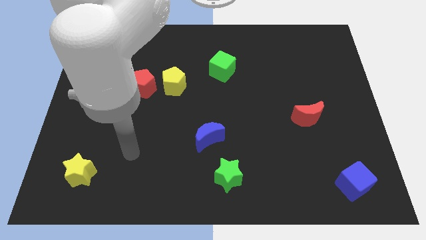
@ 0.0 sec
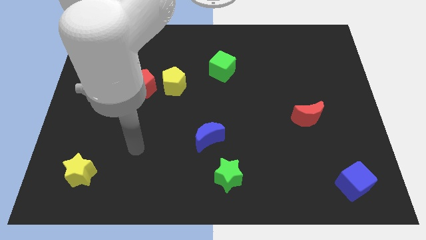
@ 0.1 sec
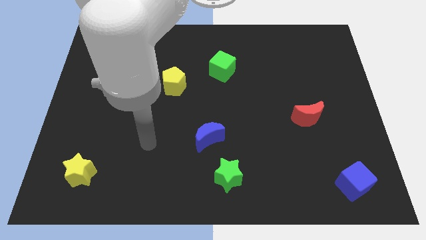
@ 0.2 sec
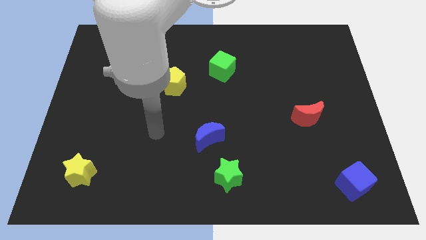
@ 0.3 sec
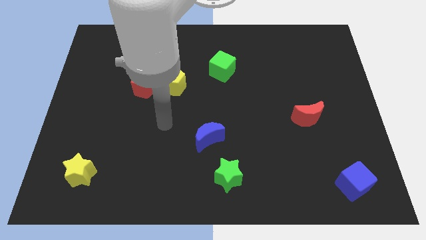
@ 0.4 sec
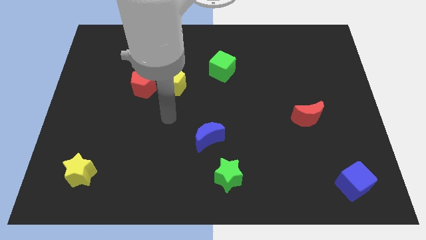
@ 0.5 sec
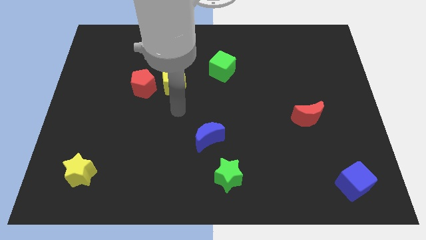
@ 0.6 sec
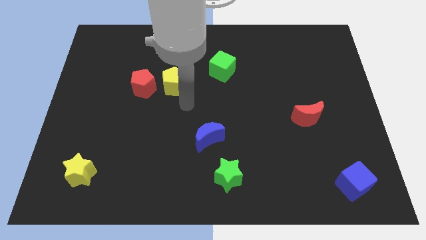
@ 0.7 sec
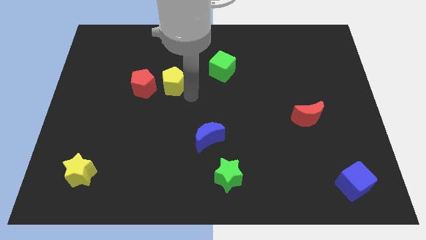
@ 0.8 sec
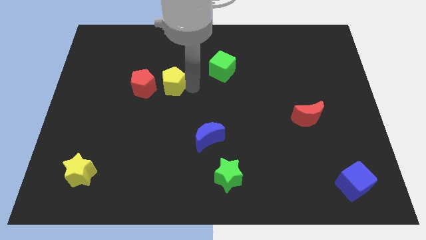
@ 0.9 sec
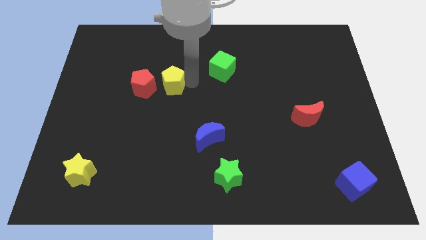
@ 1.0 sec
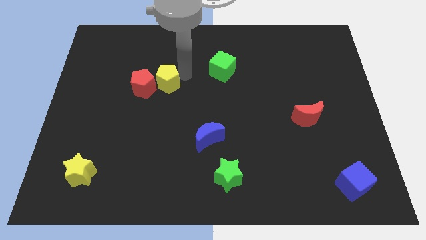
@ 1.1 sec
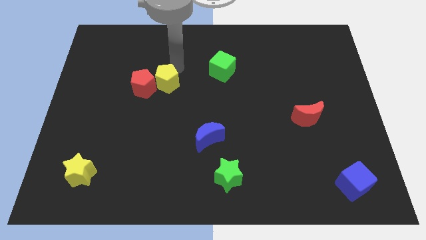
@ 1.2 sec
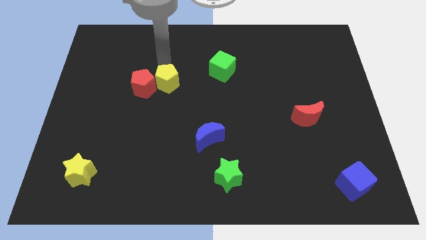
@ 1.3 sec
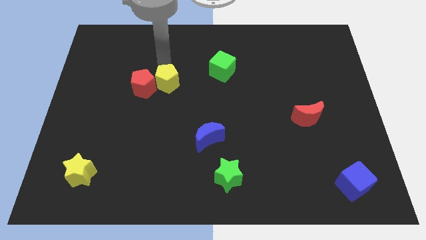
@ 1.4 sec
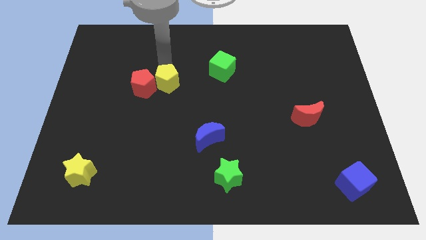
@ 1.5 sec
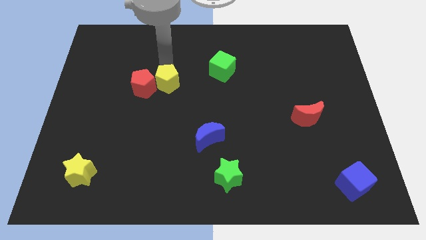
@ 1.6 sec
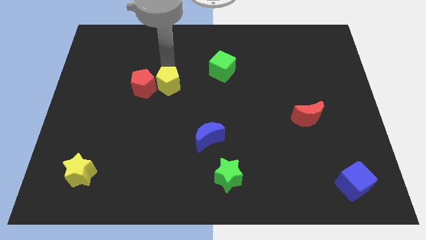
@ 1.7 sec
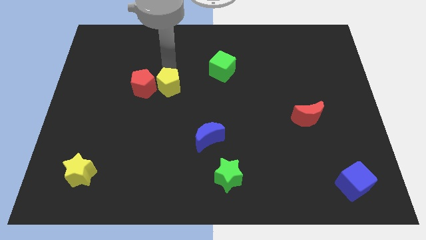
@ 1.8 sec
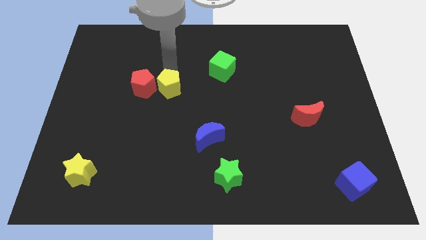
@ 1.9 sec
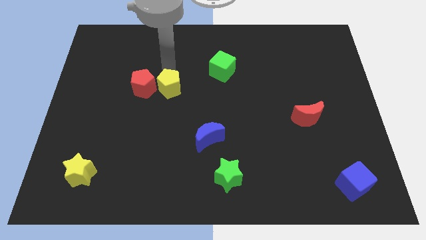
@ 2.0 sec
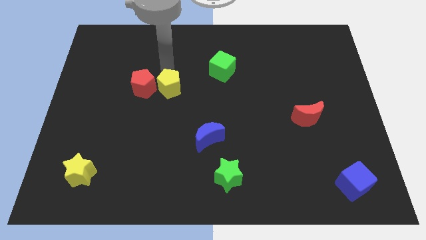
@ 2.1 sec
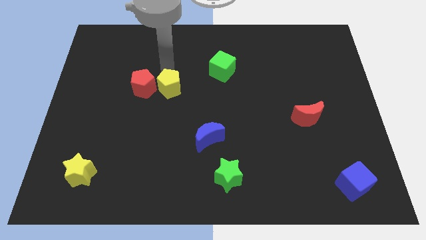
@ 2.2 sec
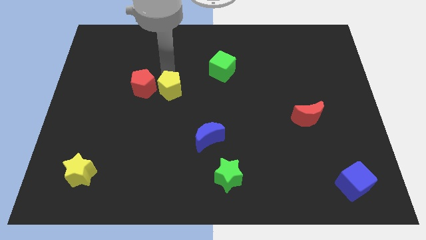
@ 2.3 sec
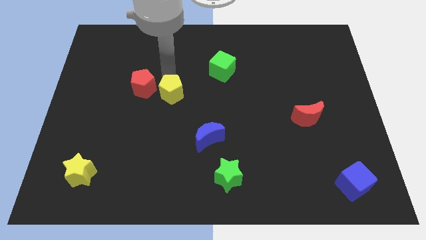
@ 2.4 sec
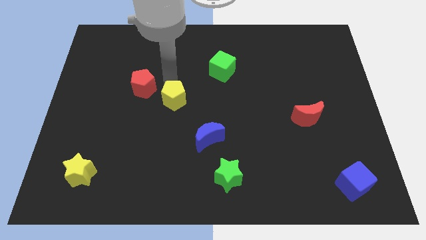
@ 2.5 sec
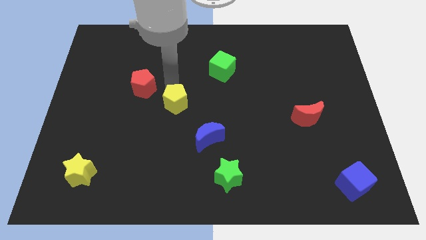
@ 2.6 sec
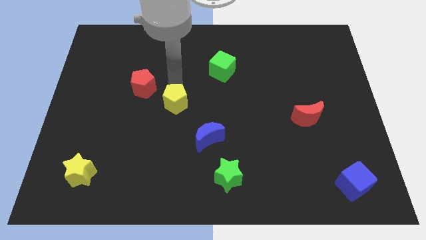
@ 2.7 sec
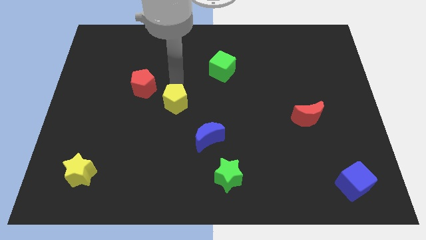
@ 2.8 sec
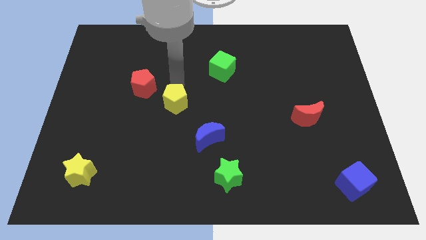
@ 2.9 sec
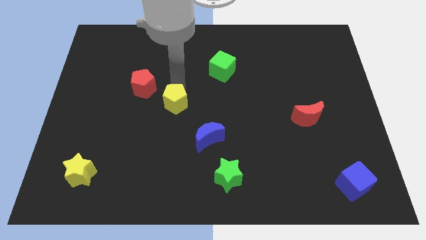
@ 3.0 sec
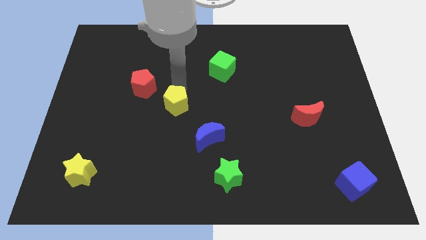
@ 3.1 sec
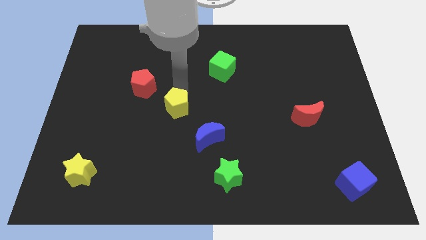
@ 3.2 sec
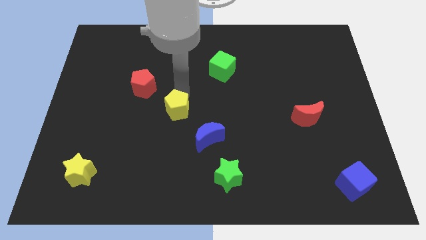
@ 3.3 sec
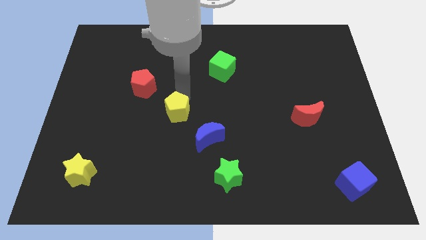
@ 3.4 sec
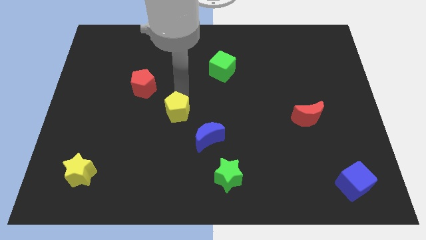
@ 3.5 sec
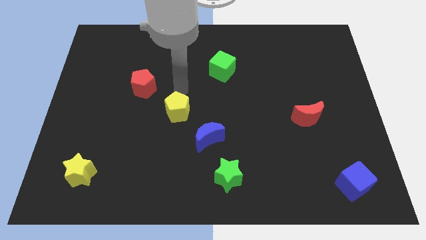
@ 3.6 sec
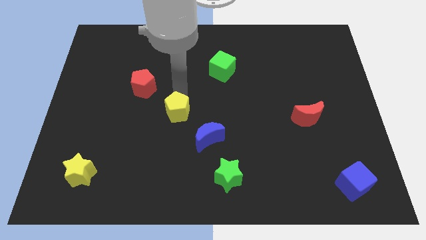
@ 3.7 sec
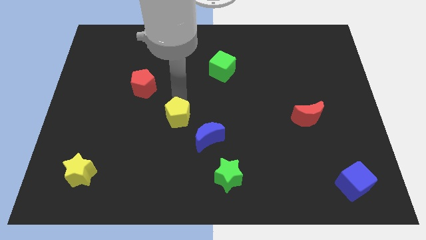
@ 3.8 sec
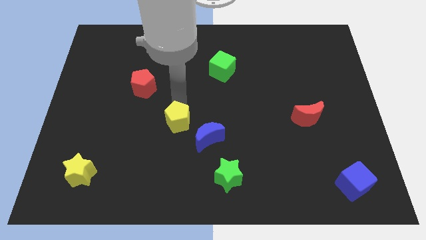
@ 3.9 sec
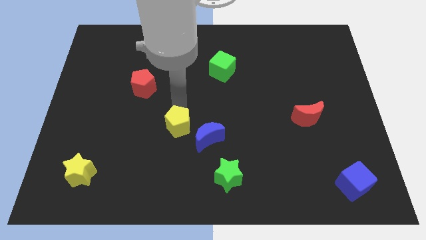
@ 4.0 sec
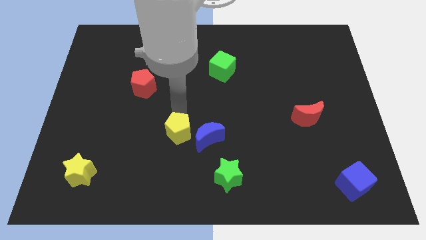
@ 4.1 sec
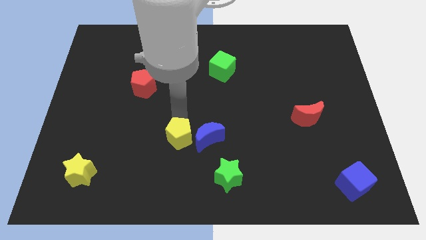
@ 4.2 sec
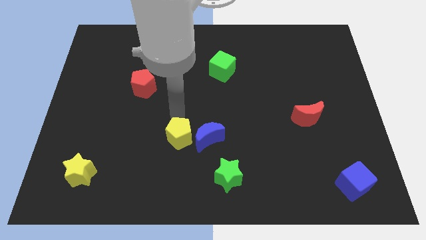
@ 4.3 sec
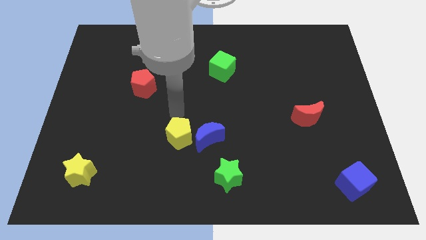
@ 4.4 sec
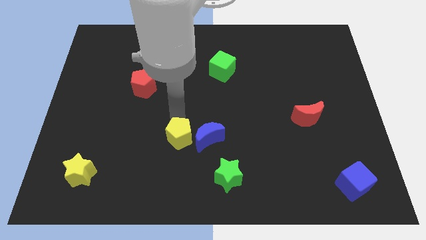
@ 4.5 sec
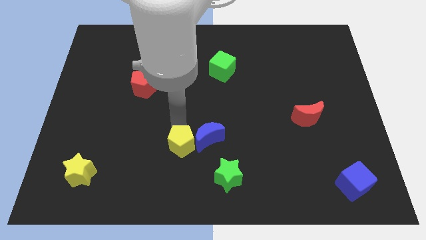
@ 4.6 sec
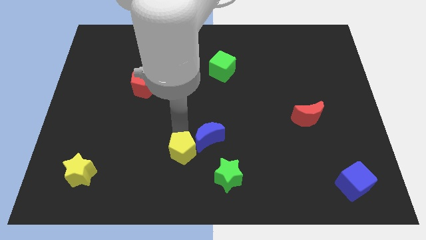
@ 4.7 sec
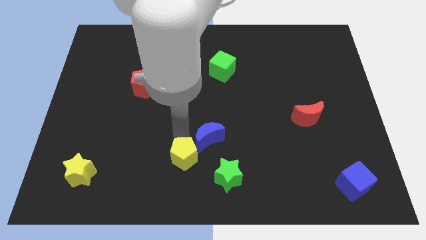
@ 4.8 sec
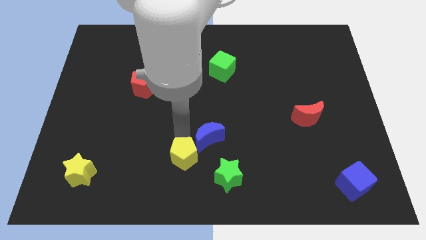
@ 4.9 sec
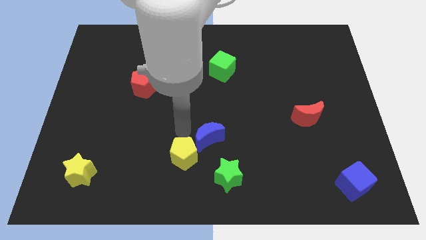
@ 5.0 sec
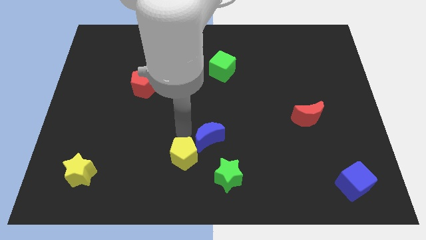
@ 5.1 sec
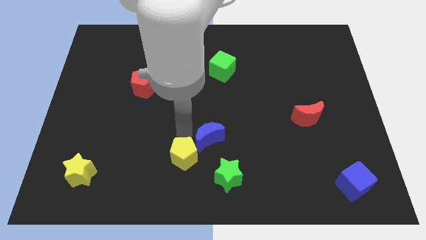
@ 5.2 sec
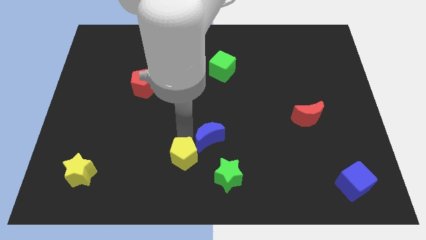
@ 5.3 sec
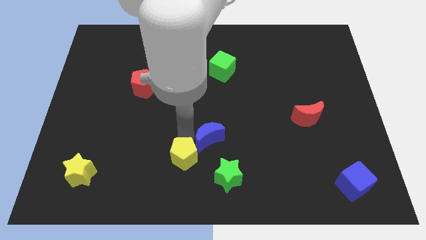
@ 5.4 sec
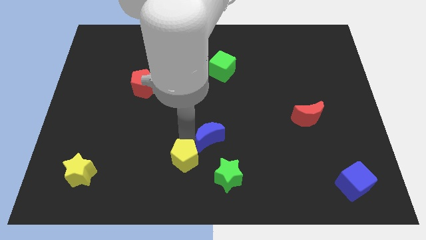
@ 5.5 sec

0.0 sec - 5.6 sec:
slide the yellow pentagon to the bottom

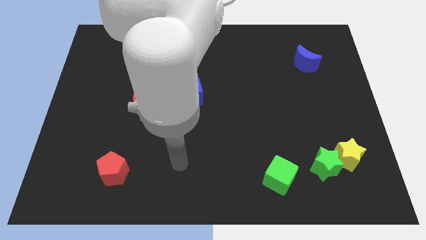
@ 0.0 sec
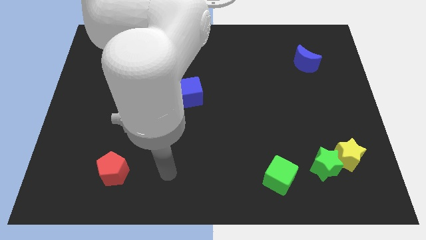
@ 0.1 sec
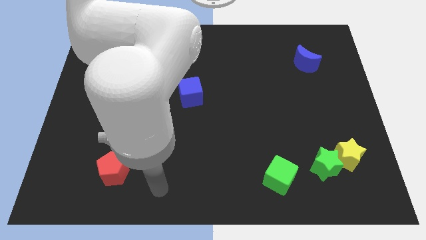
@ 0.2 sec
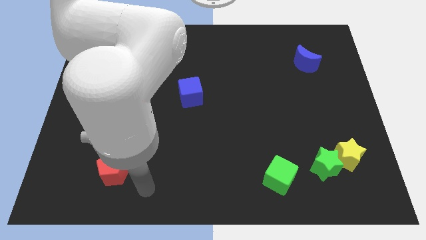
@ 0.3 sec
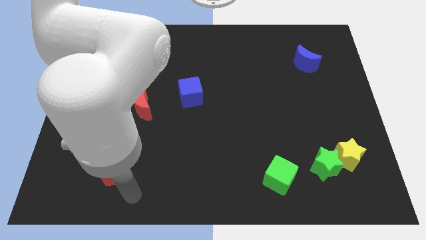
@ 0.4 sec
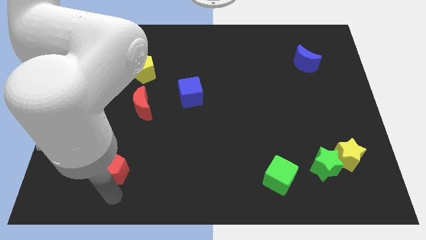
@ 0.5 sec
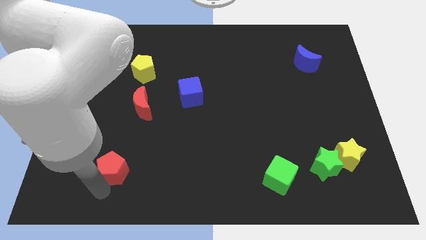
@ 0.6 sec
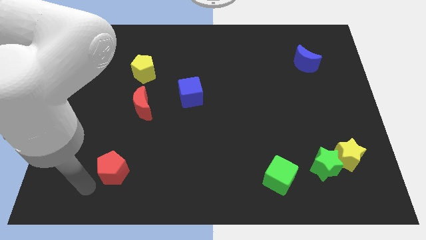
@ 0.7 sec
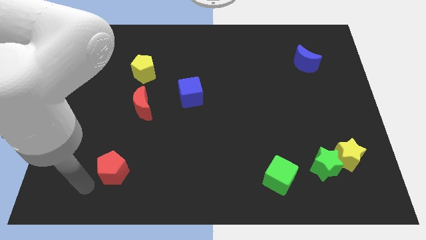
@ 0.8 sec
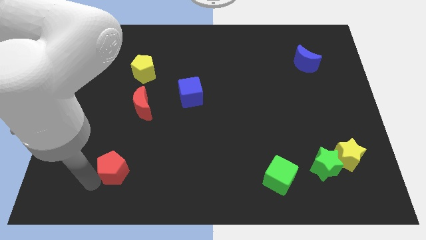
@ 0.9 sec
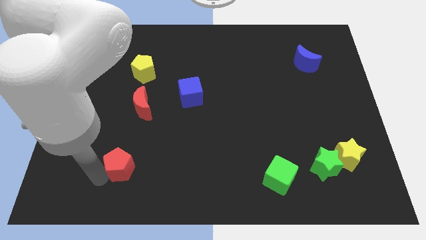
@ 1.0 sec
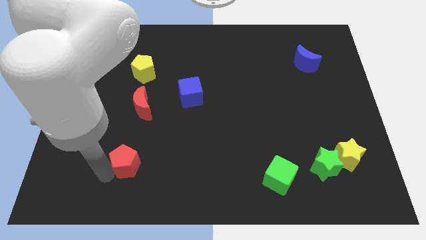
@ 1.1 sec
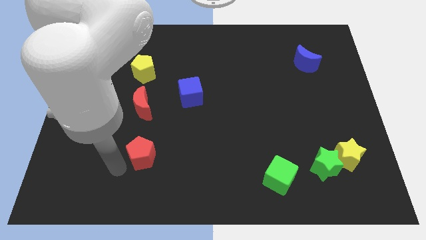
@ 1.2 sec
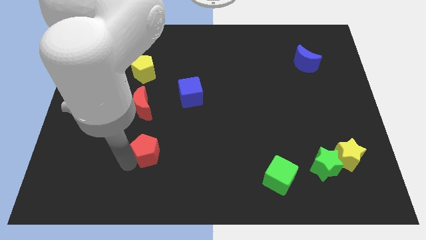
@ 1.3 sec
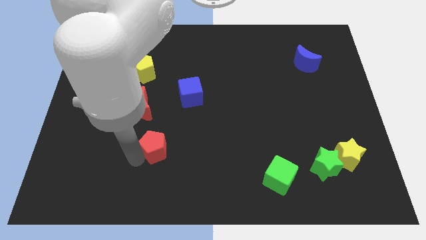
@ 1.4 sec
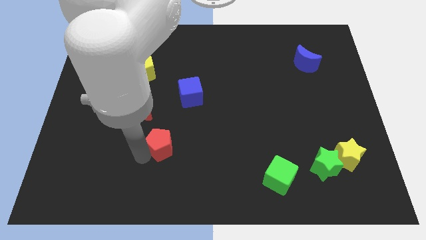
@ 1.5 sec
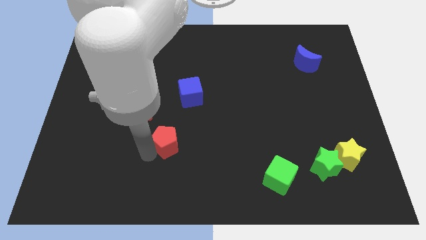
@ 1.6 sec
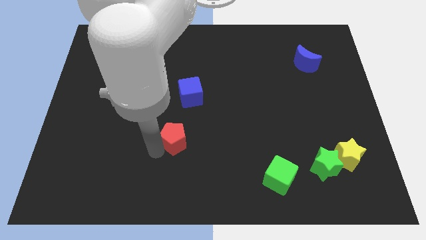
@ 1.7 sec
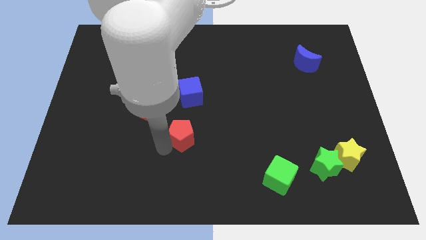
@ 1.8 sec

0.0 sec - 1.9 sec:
push the red pentagon to the middle
